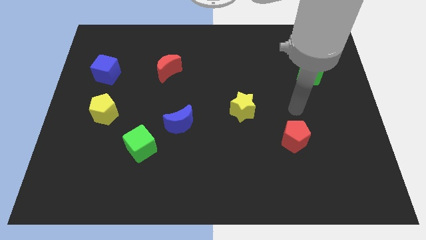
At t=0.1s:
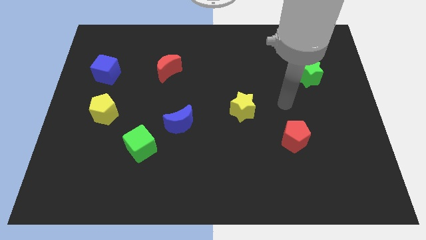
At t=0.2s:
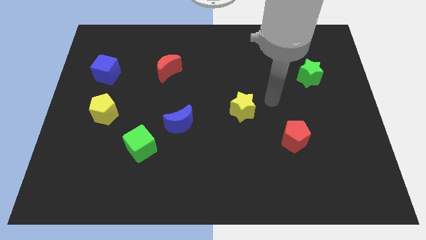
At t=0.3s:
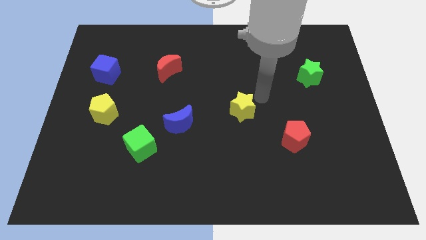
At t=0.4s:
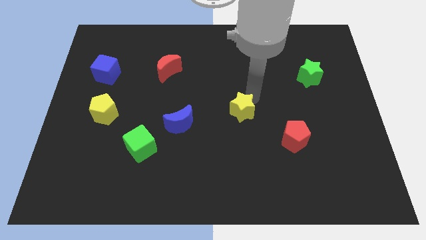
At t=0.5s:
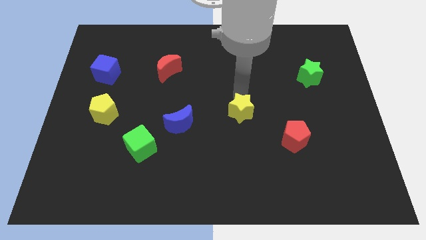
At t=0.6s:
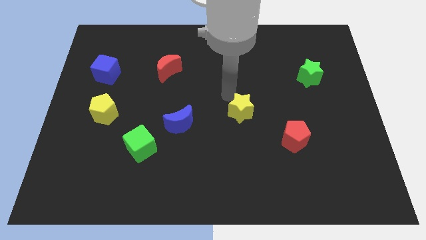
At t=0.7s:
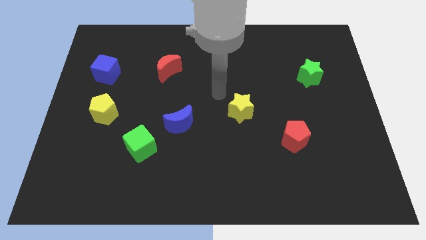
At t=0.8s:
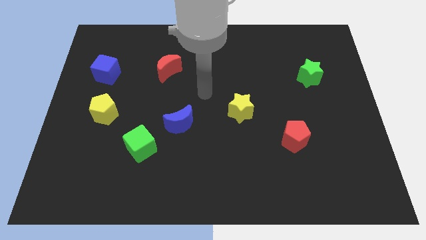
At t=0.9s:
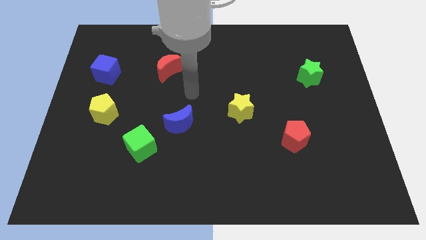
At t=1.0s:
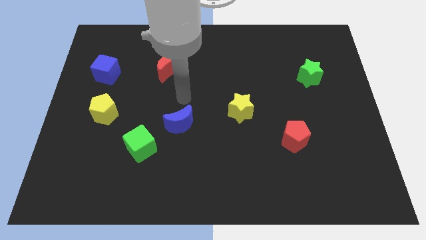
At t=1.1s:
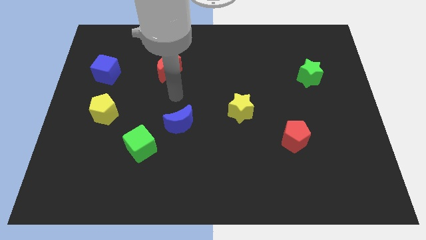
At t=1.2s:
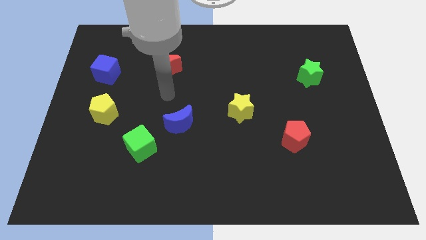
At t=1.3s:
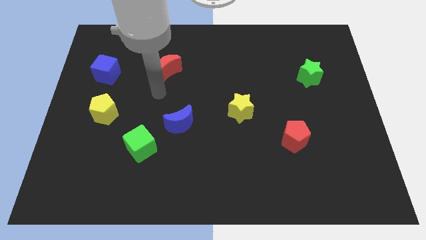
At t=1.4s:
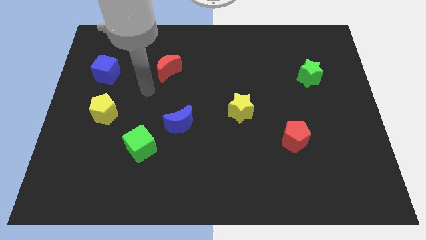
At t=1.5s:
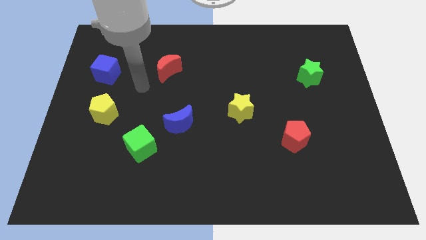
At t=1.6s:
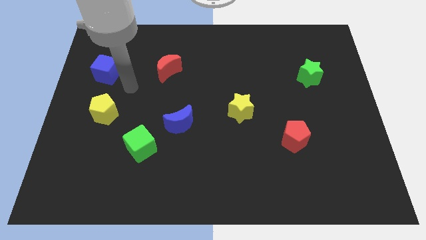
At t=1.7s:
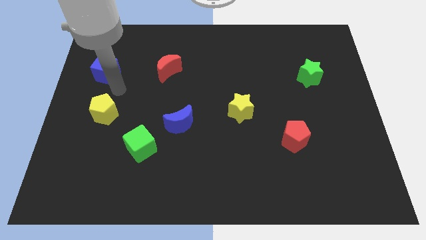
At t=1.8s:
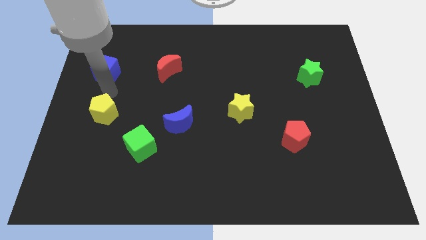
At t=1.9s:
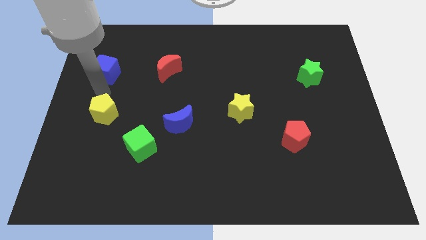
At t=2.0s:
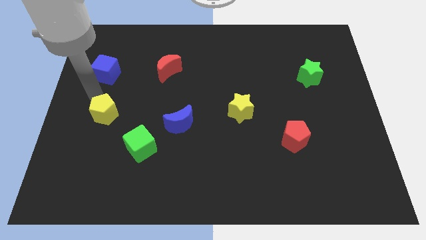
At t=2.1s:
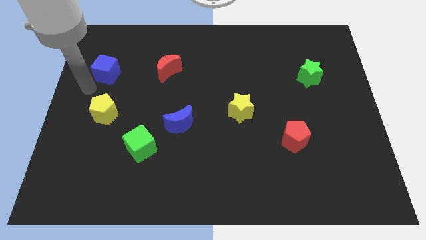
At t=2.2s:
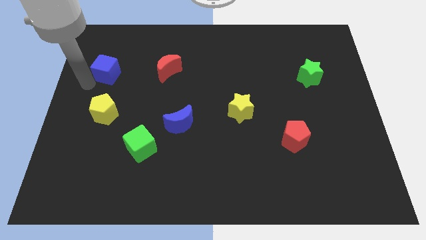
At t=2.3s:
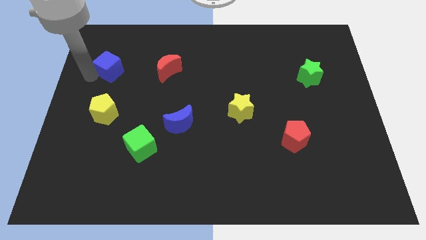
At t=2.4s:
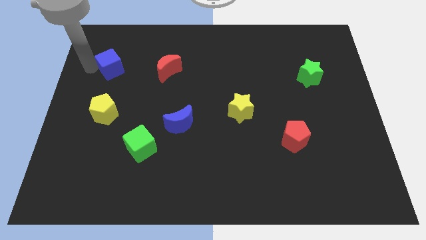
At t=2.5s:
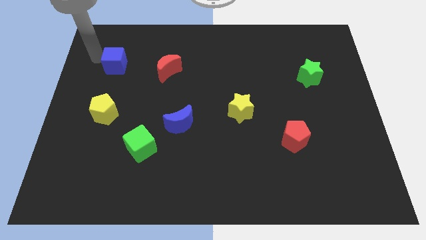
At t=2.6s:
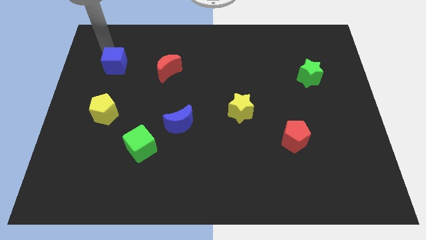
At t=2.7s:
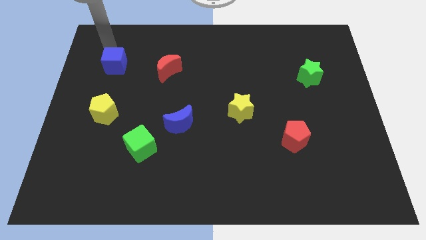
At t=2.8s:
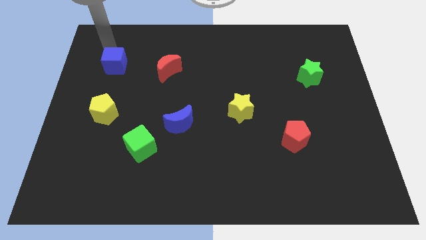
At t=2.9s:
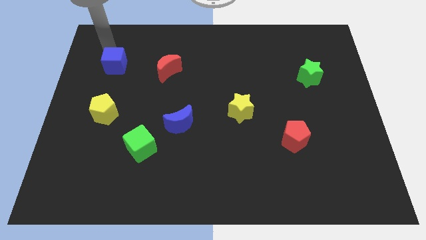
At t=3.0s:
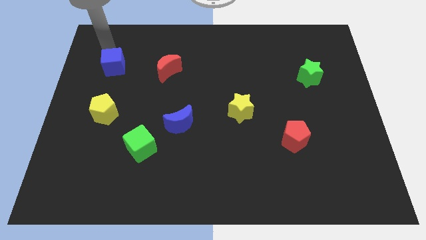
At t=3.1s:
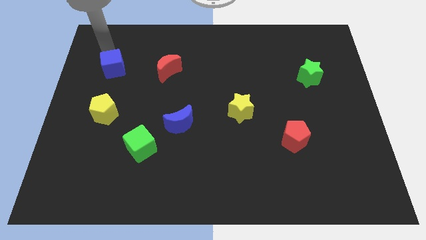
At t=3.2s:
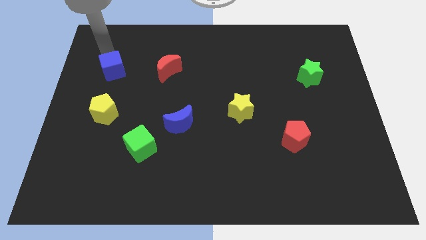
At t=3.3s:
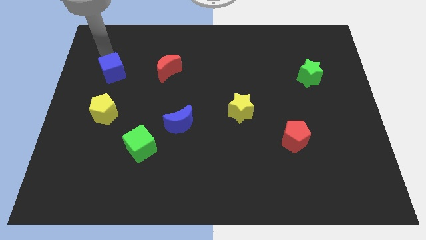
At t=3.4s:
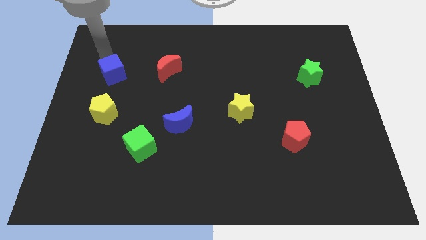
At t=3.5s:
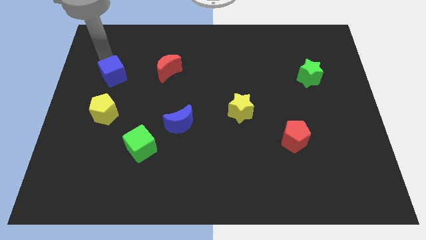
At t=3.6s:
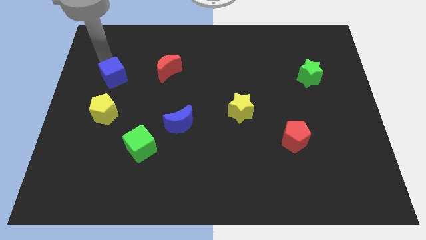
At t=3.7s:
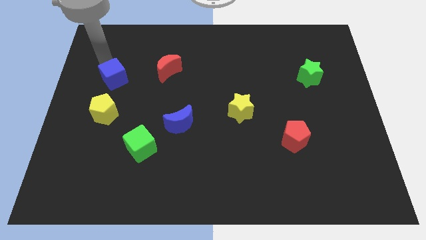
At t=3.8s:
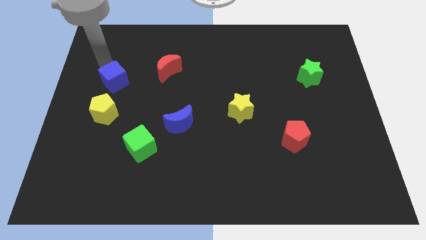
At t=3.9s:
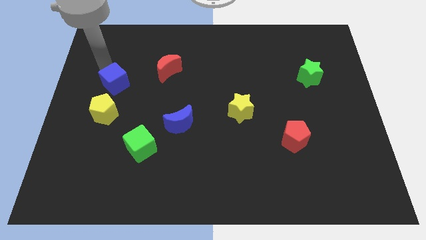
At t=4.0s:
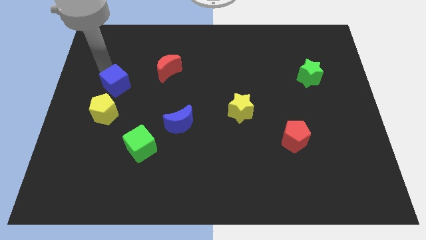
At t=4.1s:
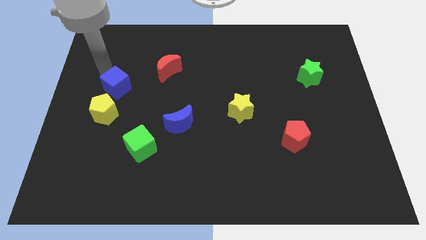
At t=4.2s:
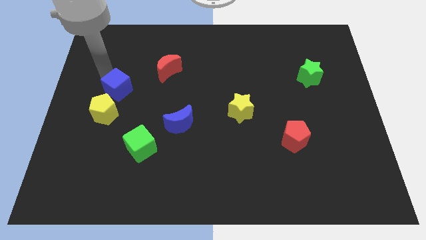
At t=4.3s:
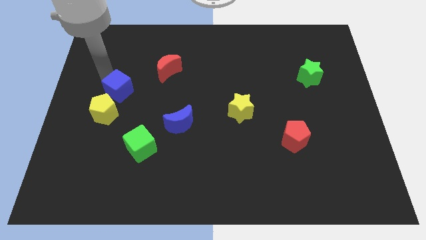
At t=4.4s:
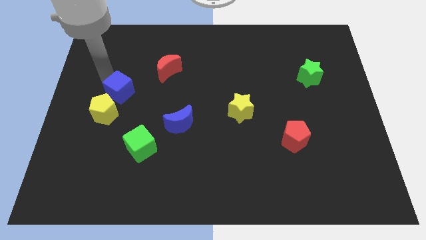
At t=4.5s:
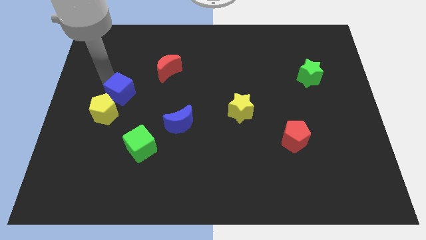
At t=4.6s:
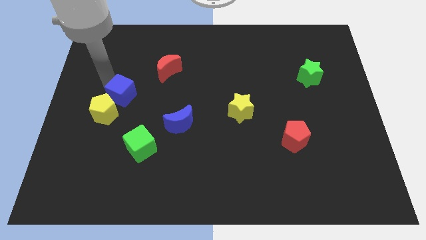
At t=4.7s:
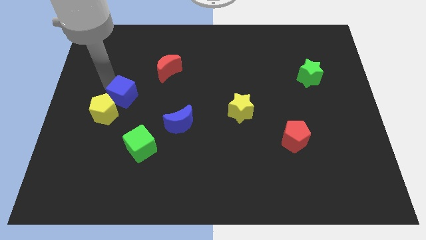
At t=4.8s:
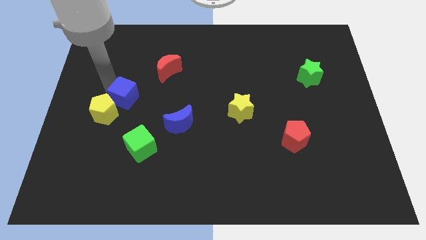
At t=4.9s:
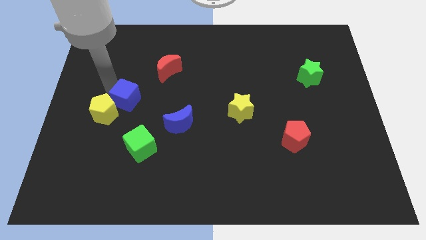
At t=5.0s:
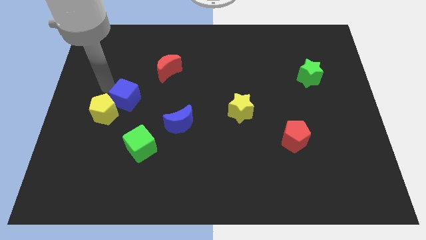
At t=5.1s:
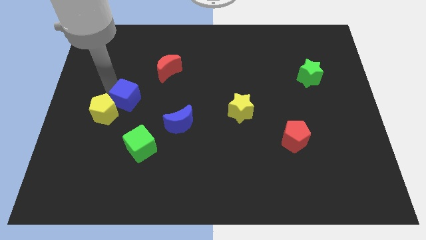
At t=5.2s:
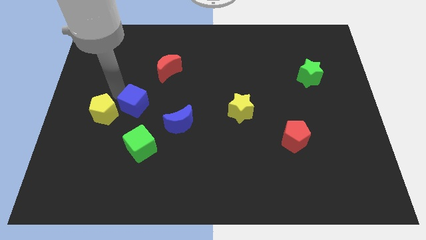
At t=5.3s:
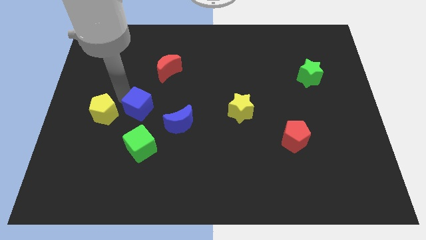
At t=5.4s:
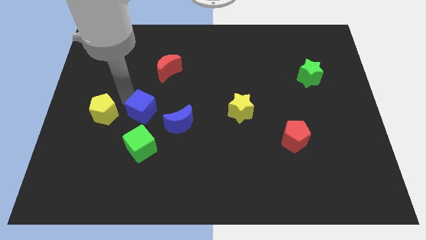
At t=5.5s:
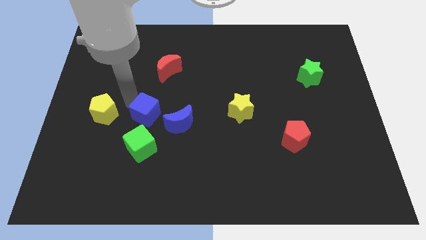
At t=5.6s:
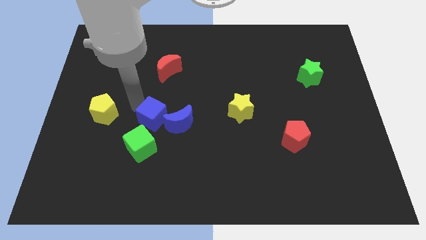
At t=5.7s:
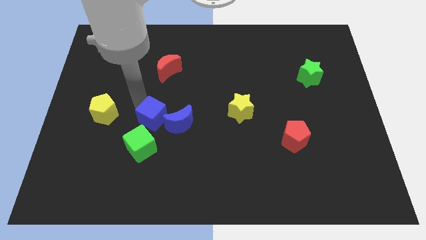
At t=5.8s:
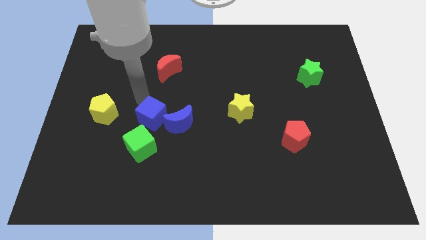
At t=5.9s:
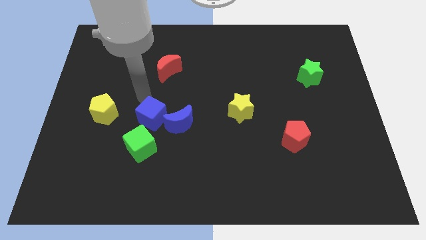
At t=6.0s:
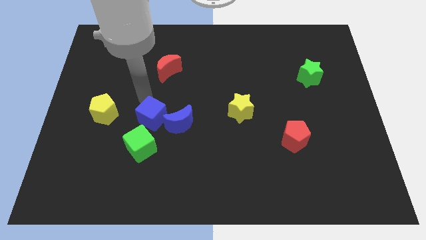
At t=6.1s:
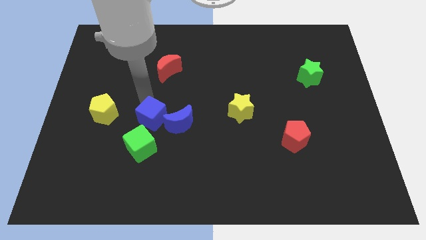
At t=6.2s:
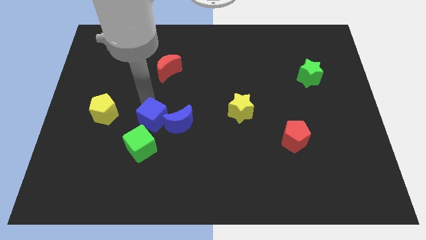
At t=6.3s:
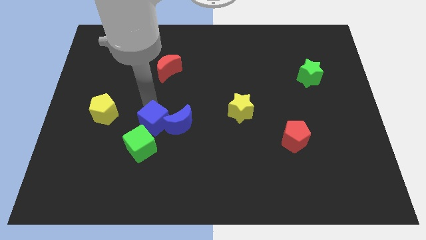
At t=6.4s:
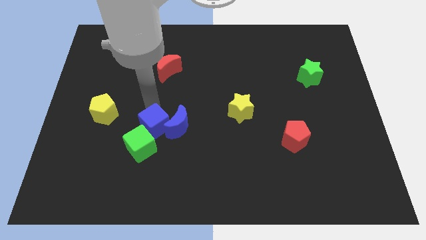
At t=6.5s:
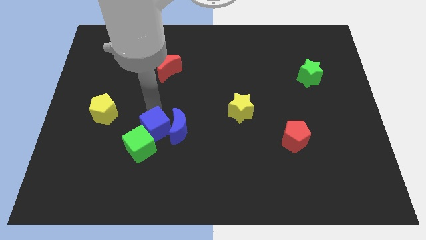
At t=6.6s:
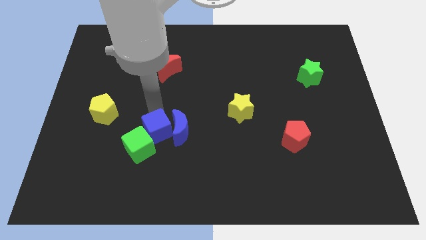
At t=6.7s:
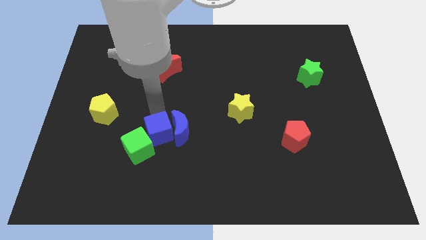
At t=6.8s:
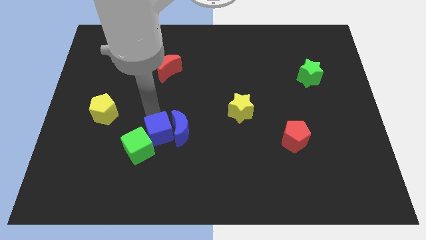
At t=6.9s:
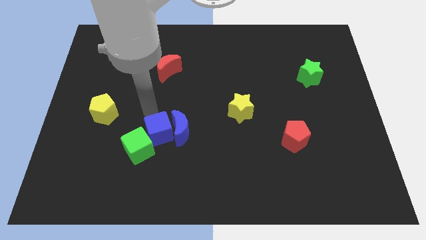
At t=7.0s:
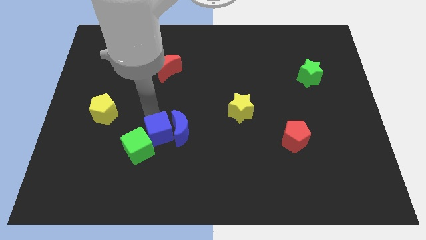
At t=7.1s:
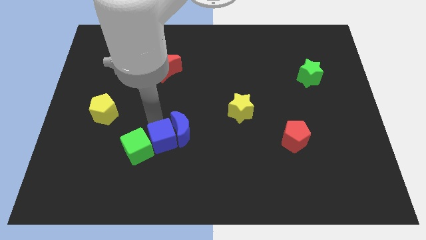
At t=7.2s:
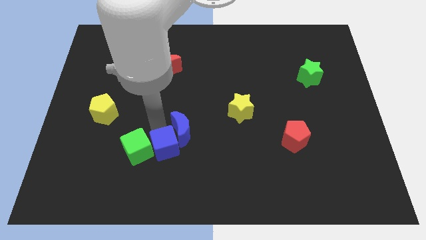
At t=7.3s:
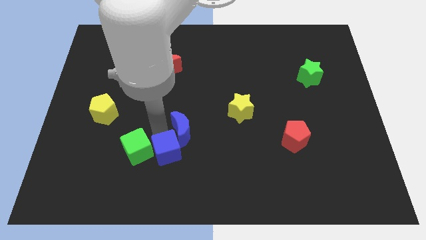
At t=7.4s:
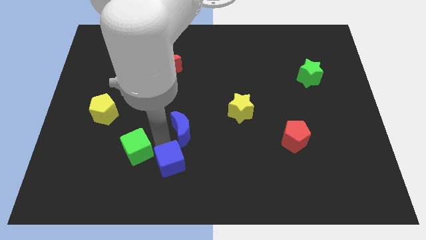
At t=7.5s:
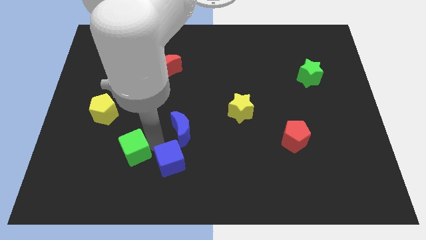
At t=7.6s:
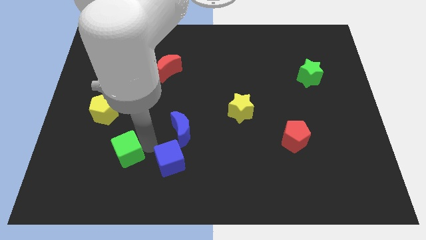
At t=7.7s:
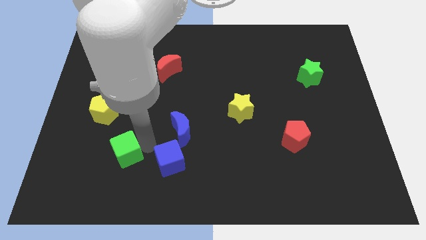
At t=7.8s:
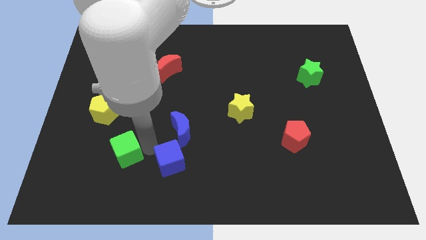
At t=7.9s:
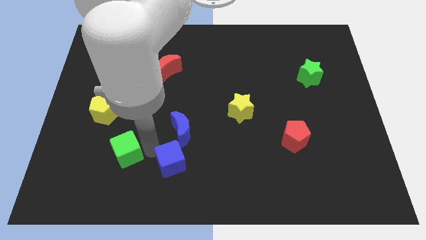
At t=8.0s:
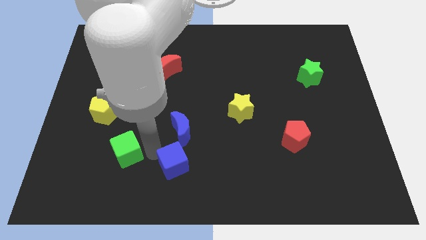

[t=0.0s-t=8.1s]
push the blue cube to the bottom side
